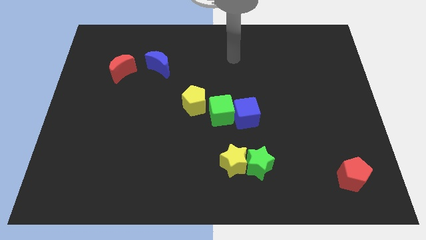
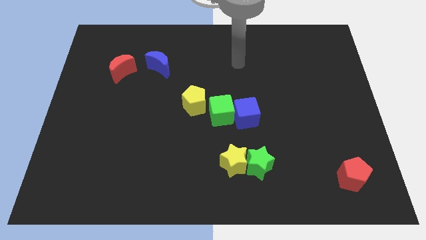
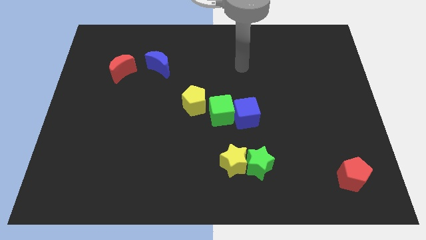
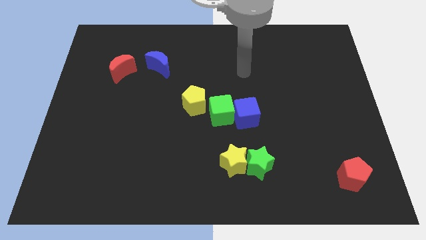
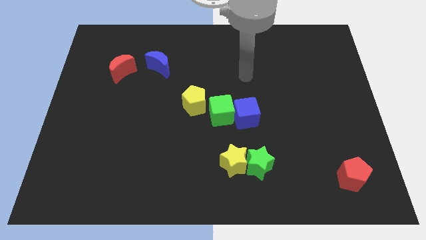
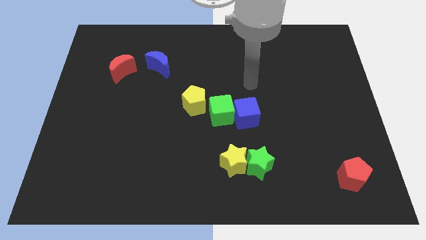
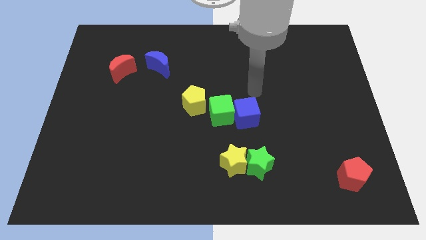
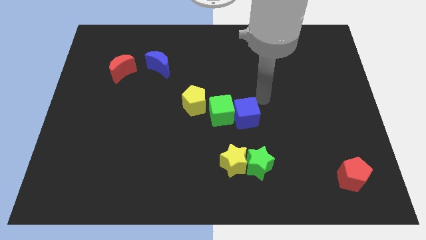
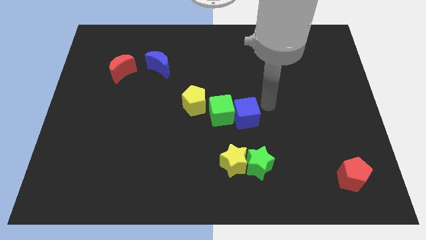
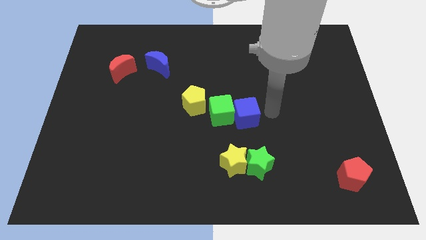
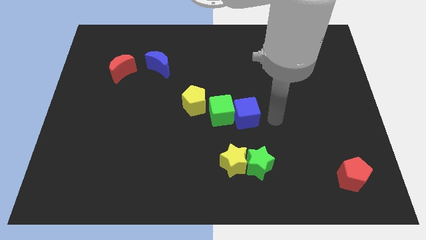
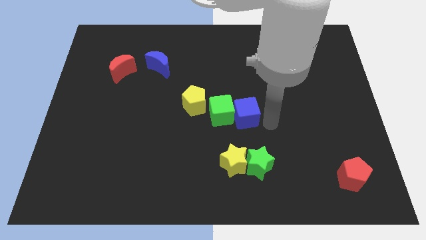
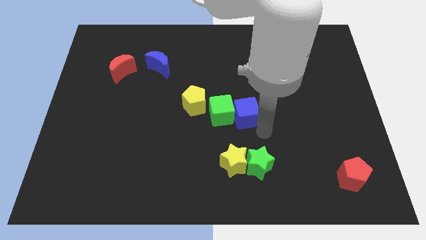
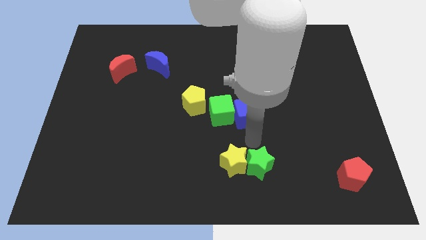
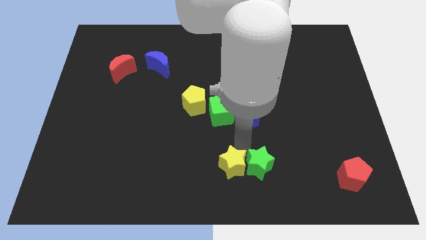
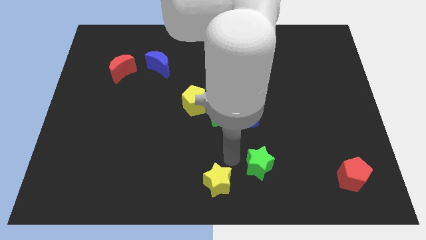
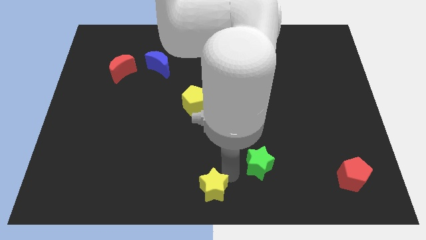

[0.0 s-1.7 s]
separate the green star from the yellow star

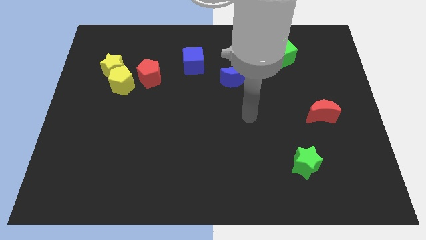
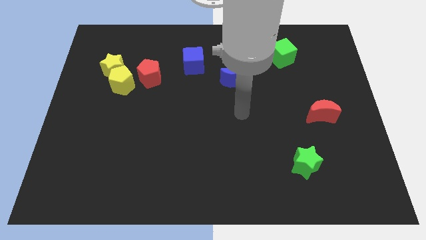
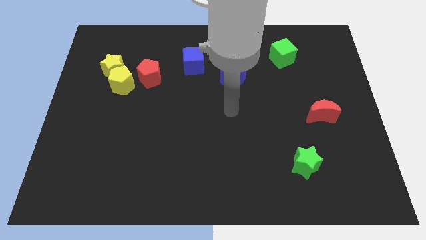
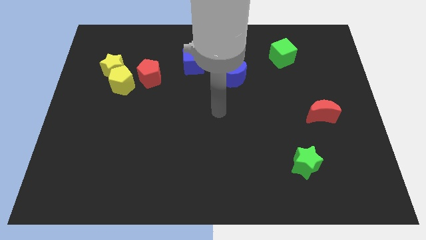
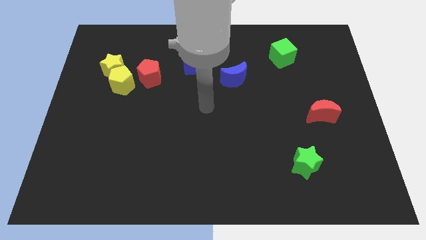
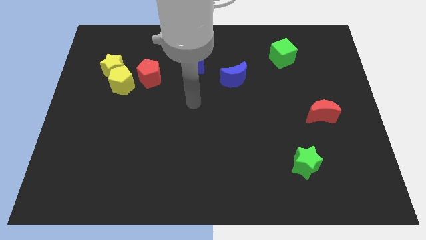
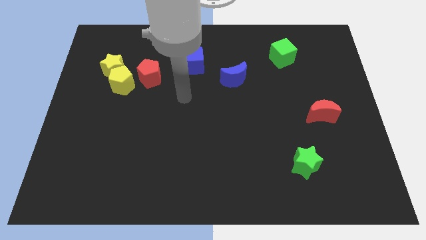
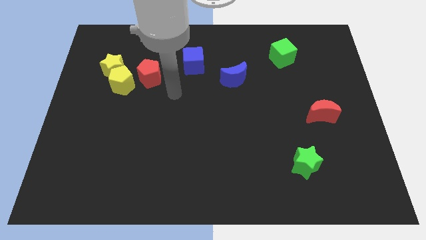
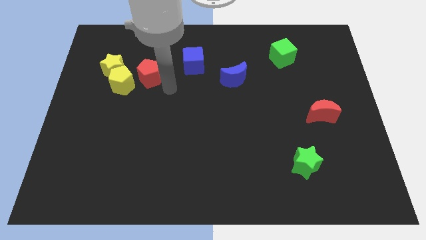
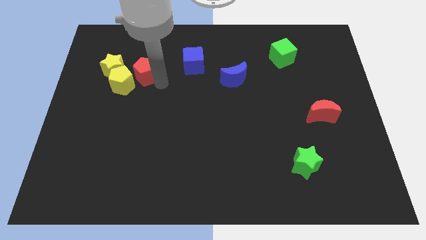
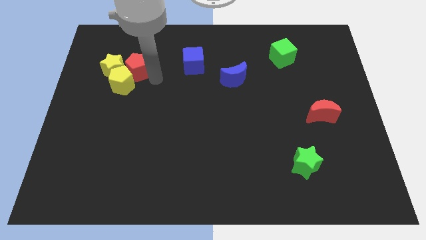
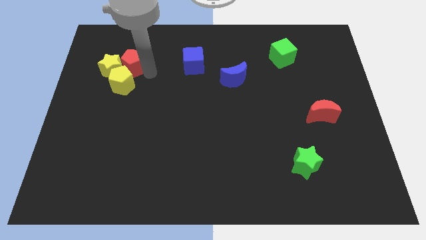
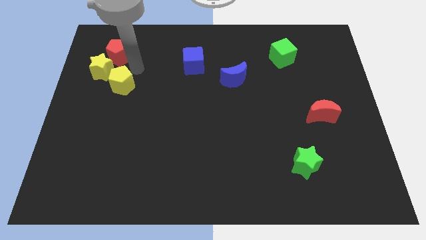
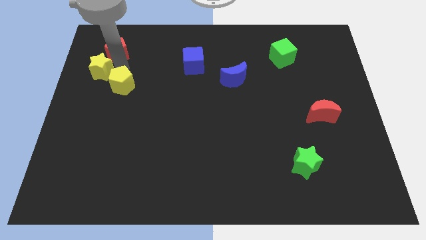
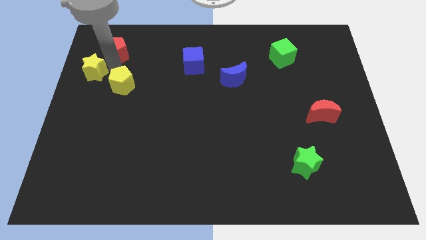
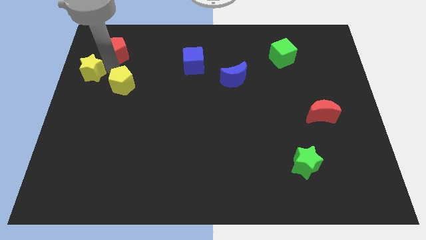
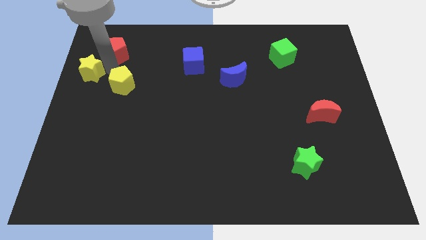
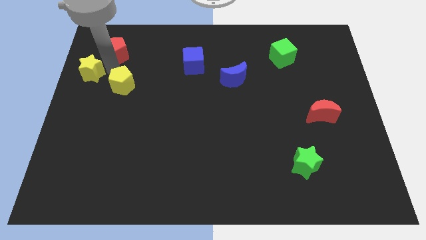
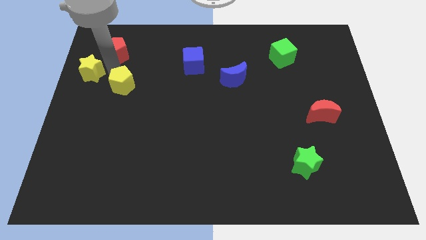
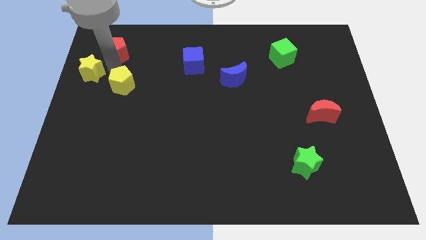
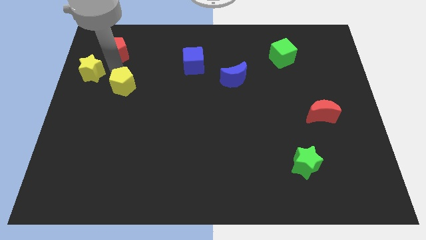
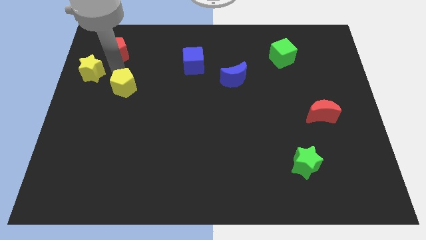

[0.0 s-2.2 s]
separate the yellow pentagon from the yellow star and red pentagon

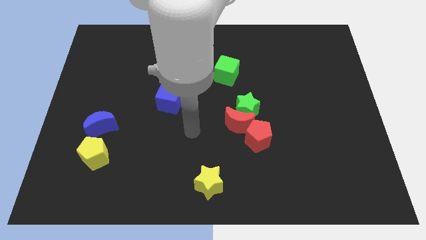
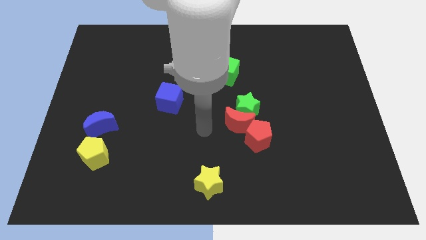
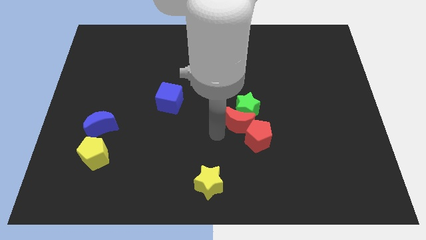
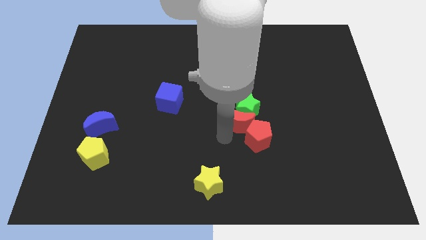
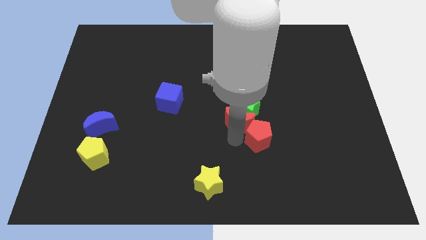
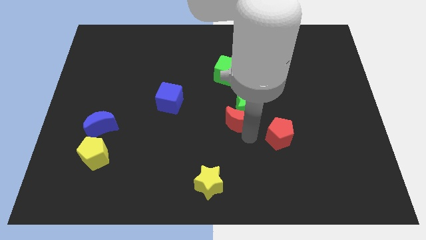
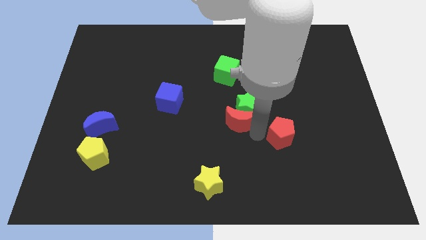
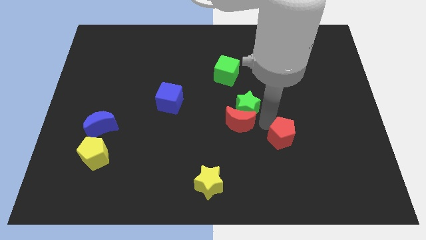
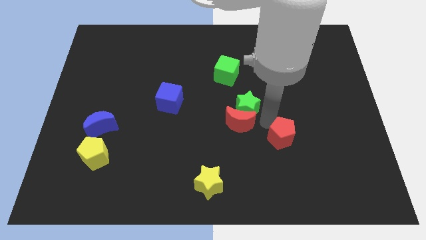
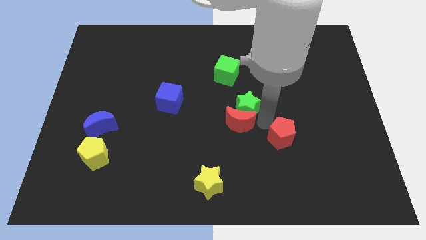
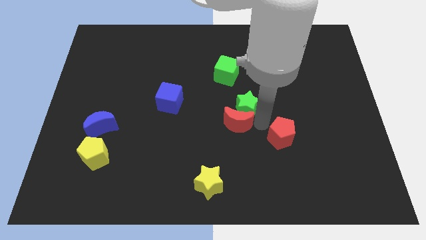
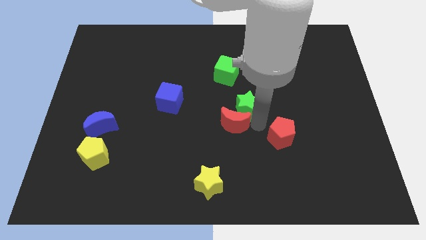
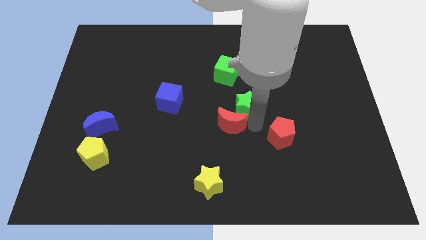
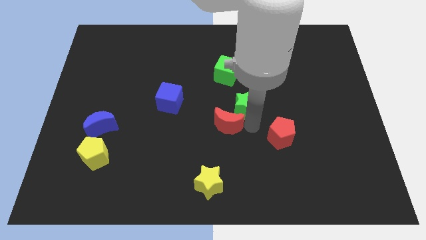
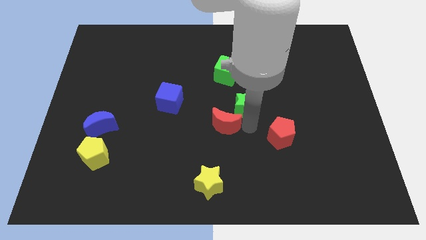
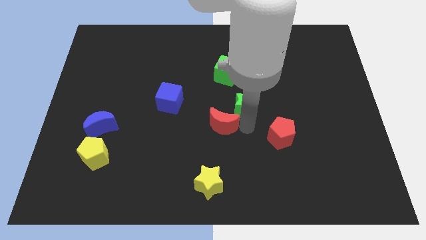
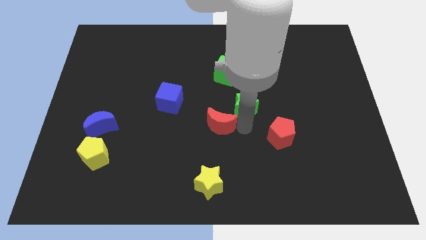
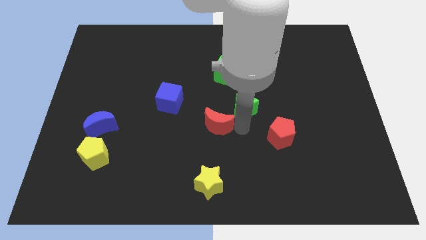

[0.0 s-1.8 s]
separate the red moon from the green star and red pentagon

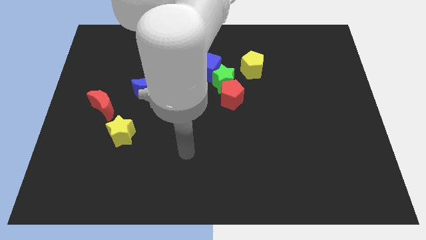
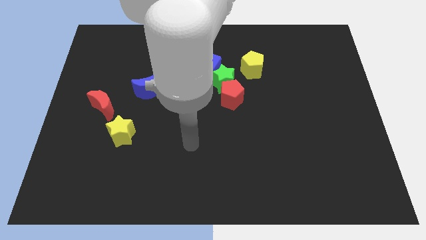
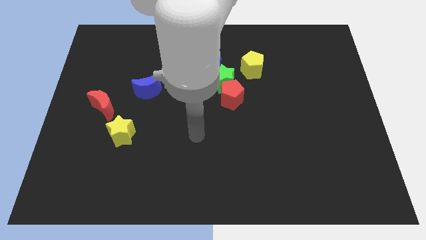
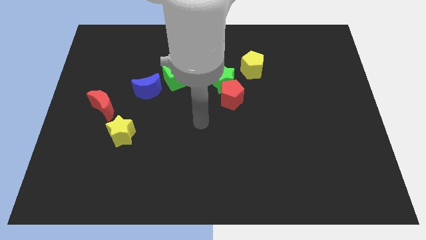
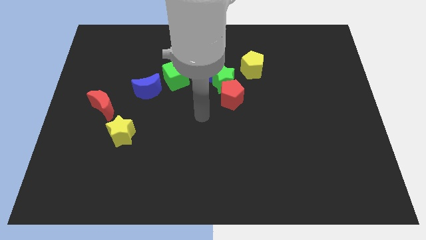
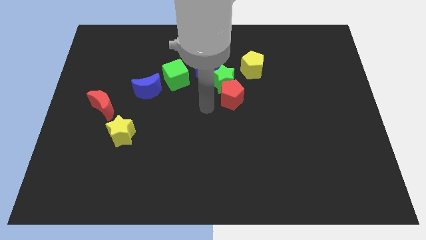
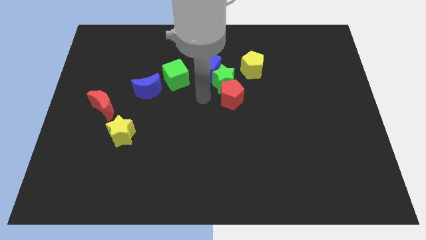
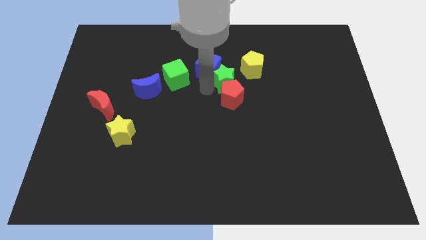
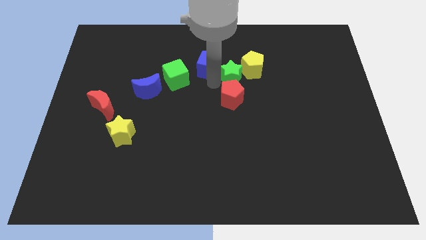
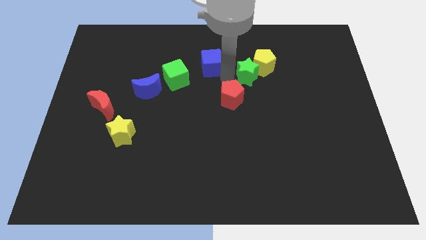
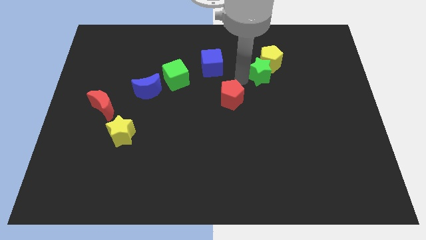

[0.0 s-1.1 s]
move the red pentagon away from the green star

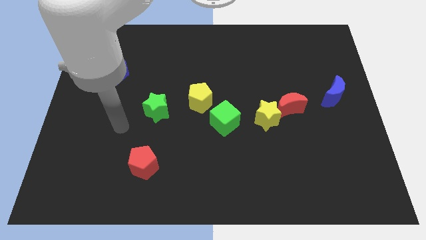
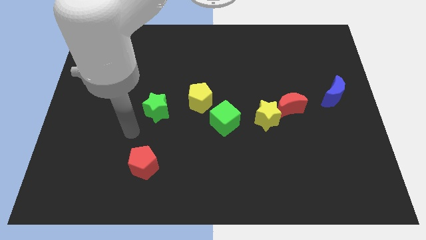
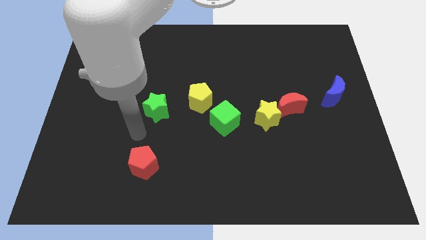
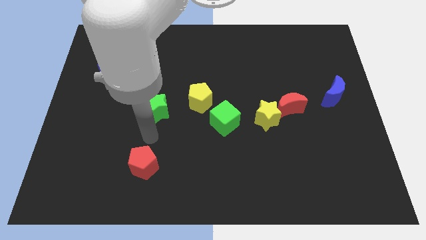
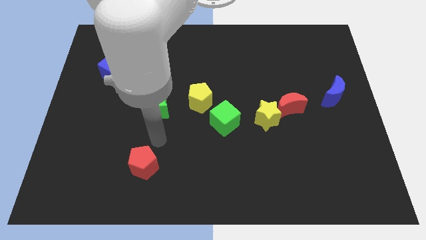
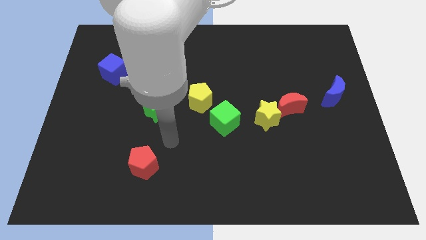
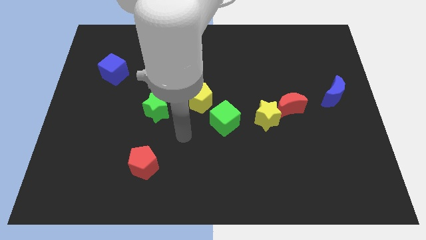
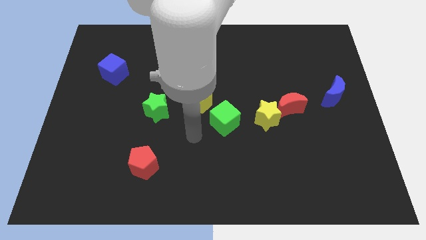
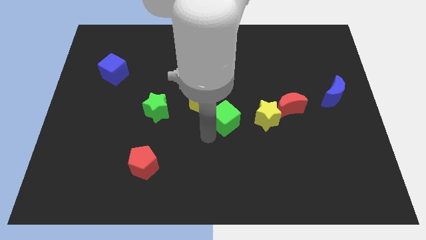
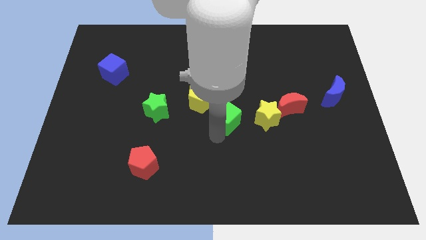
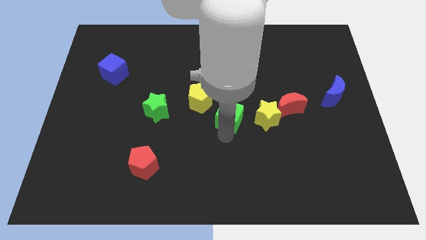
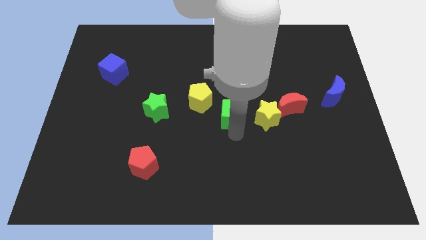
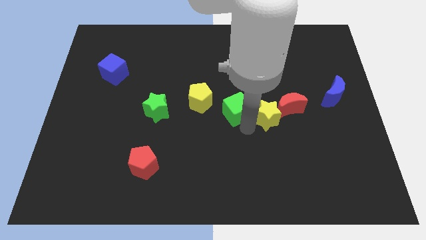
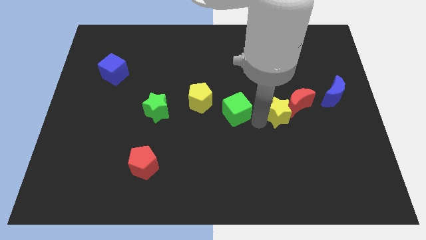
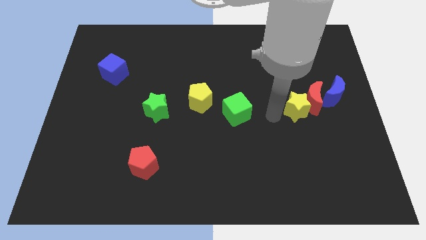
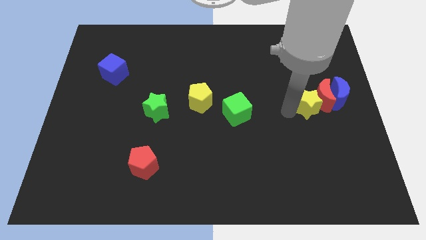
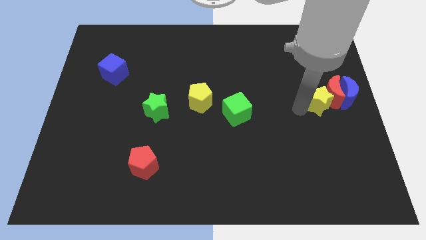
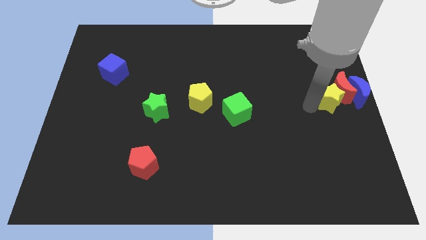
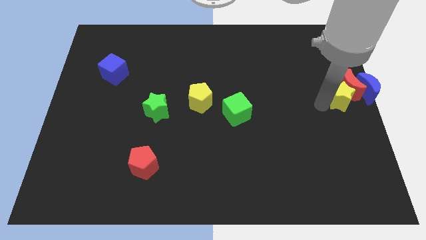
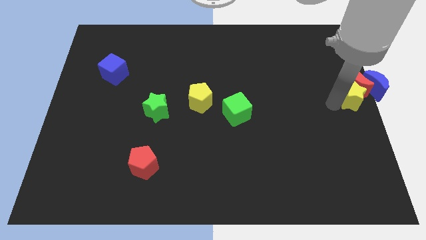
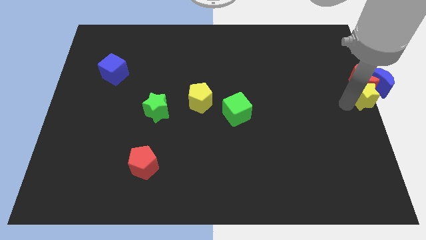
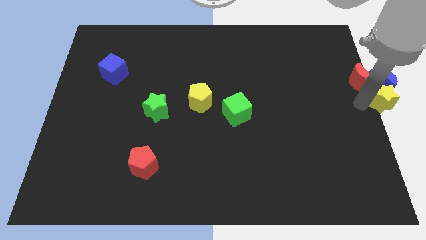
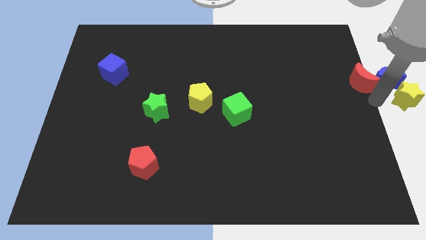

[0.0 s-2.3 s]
pull the red moon apart from the yellow star

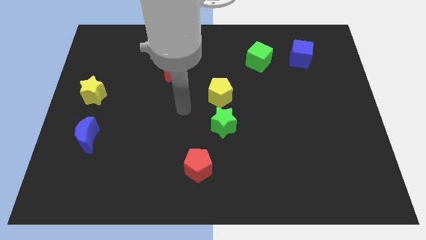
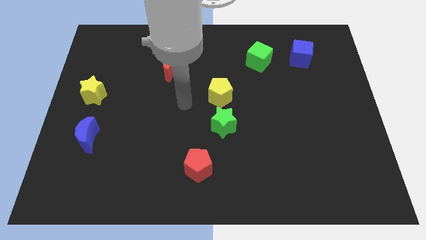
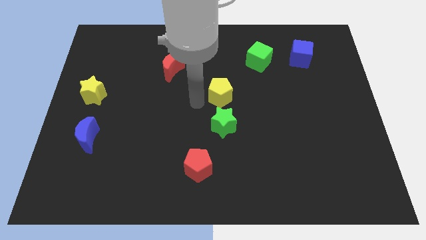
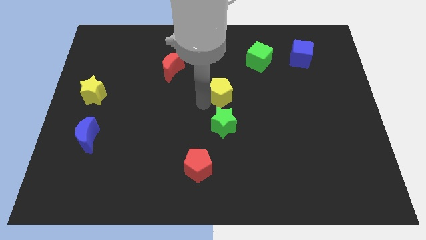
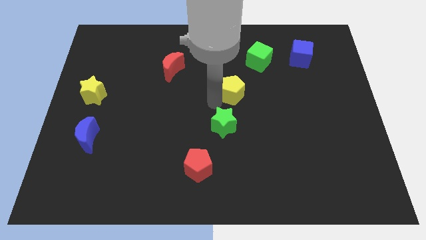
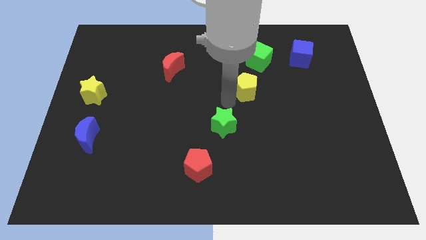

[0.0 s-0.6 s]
separate the green star from the yellow pentagon
